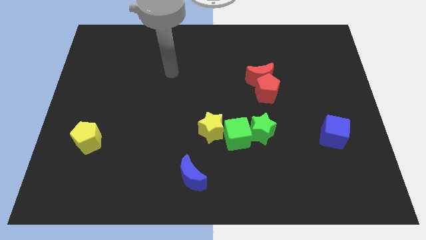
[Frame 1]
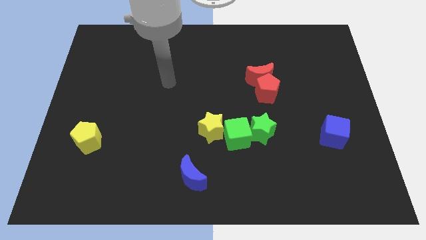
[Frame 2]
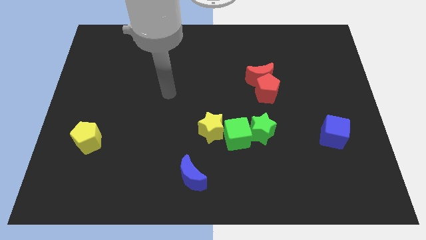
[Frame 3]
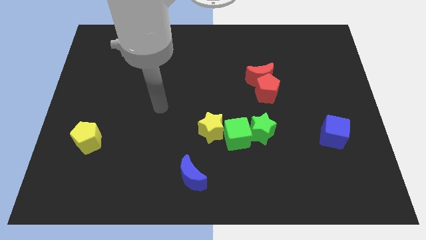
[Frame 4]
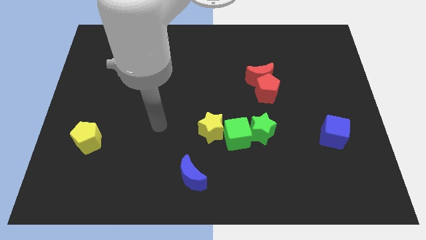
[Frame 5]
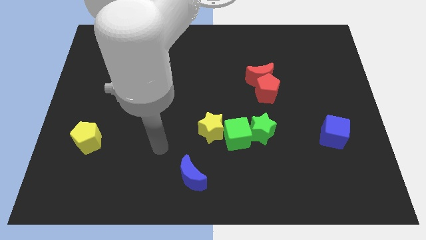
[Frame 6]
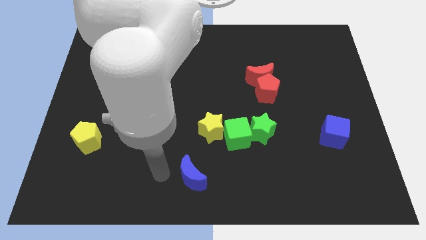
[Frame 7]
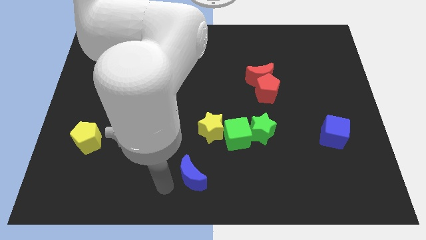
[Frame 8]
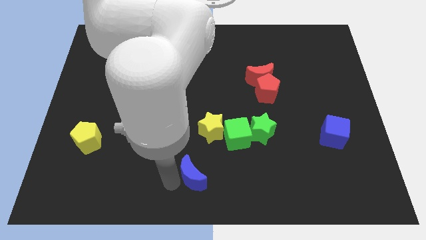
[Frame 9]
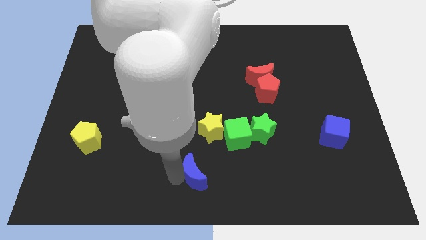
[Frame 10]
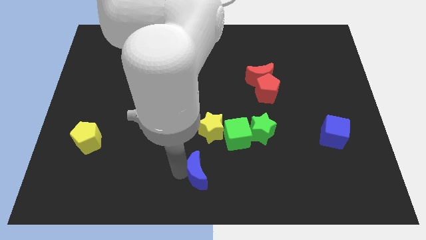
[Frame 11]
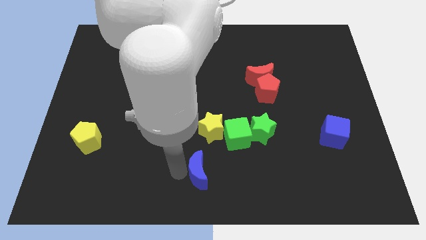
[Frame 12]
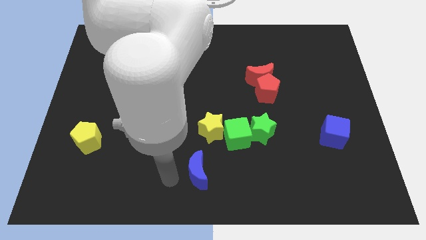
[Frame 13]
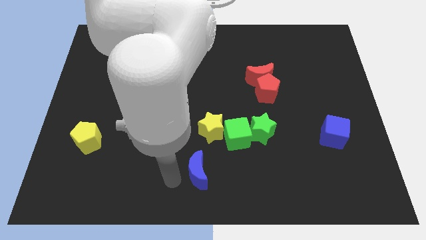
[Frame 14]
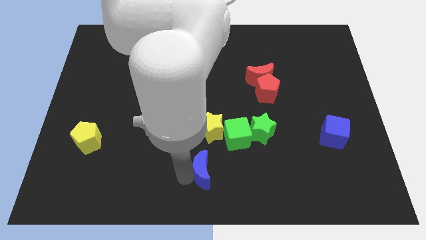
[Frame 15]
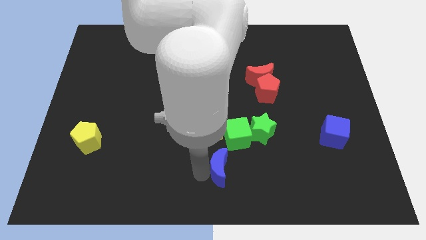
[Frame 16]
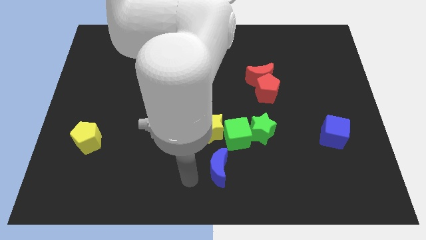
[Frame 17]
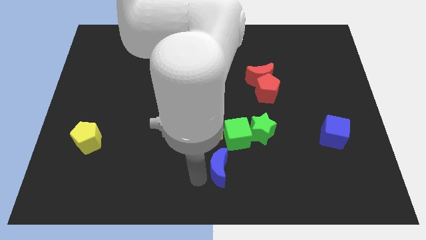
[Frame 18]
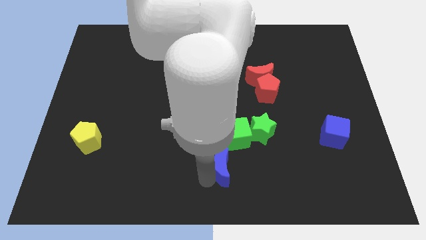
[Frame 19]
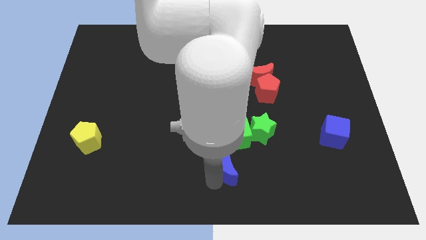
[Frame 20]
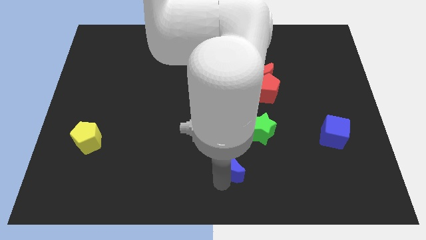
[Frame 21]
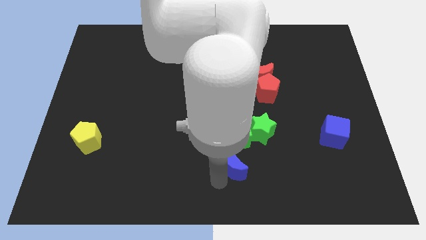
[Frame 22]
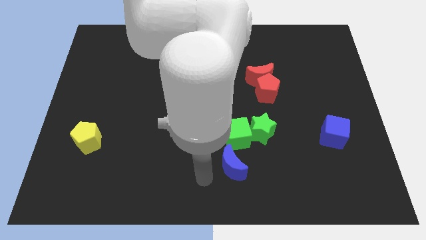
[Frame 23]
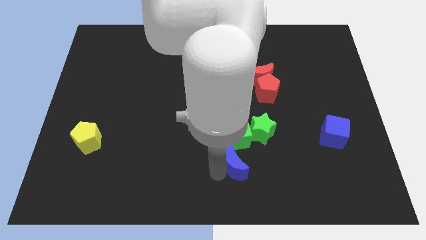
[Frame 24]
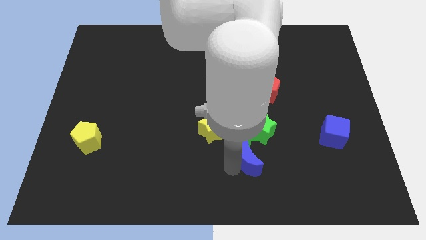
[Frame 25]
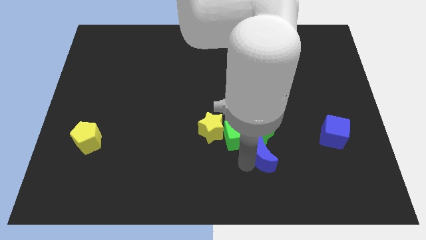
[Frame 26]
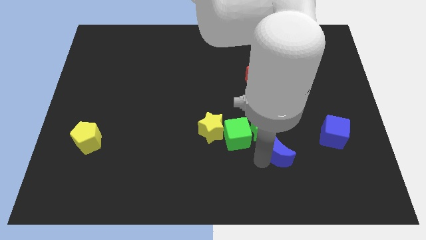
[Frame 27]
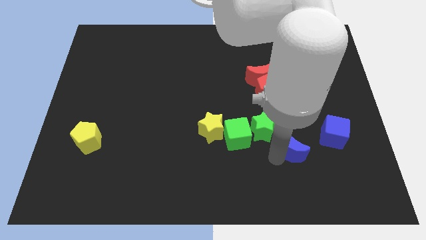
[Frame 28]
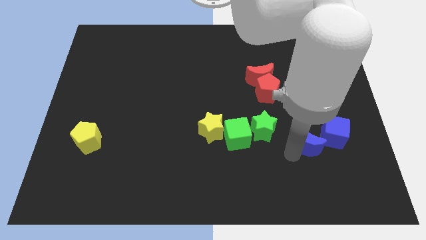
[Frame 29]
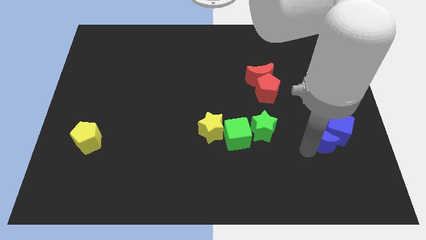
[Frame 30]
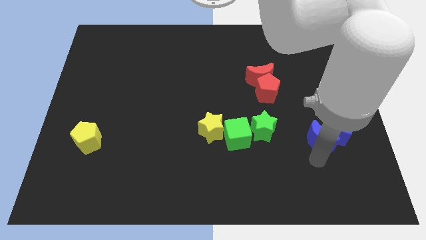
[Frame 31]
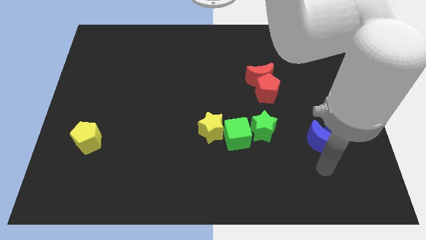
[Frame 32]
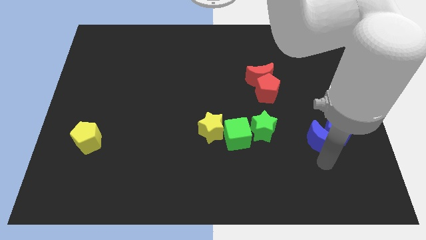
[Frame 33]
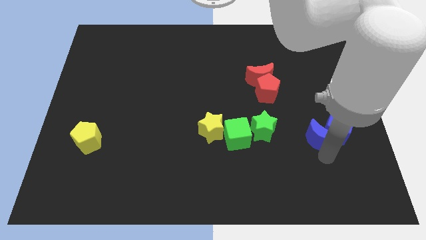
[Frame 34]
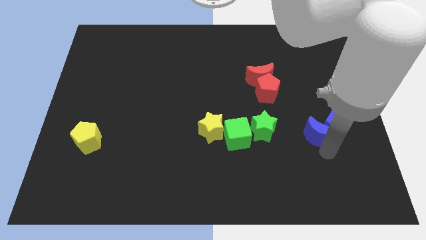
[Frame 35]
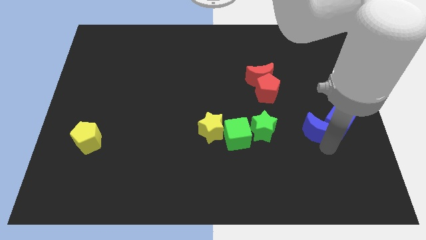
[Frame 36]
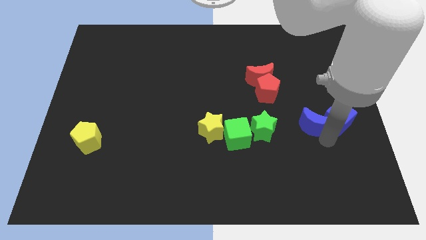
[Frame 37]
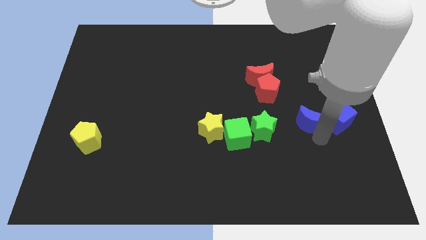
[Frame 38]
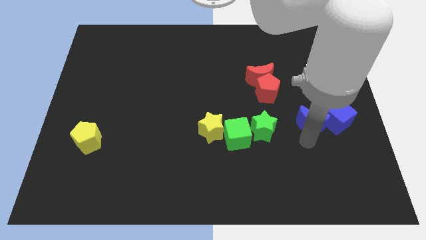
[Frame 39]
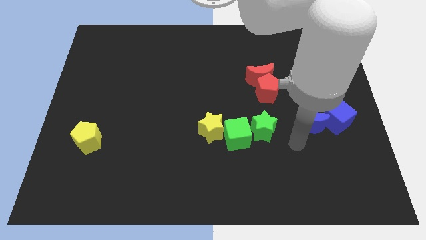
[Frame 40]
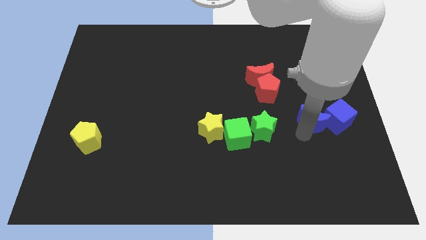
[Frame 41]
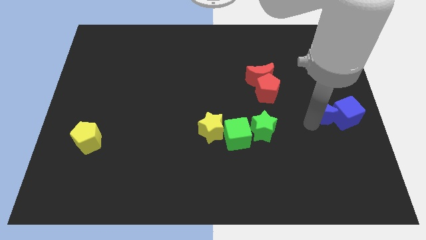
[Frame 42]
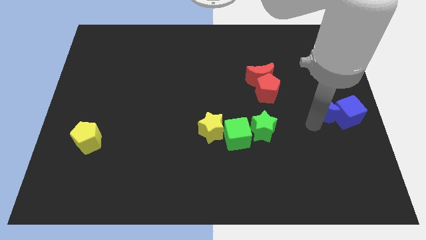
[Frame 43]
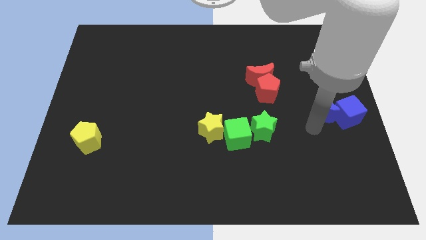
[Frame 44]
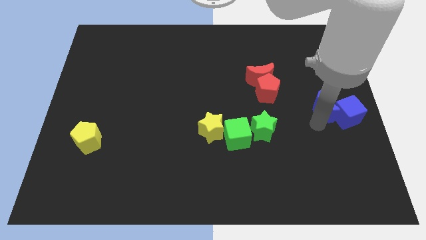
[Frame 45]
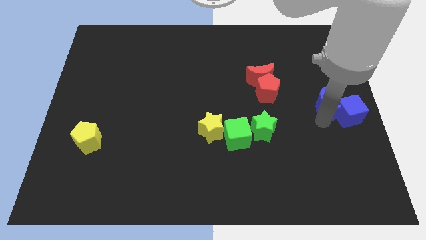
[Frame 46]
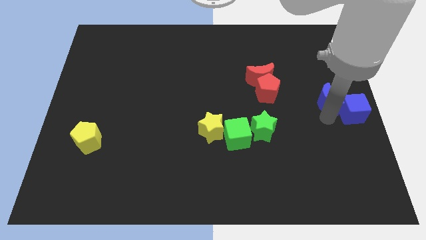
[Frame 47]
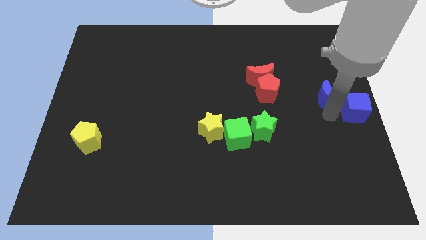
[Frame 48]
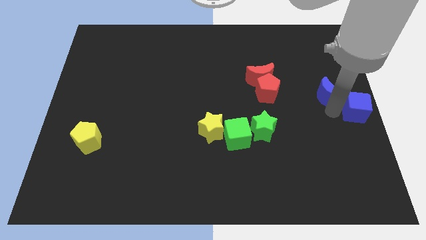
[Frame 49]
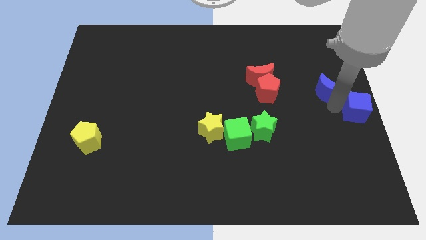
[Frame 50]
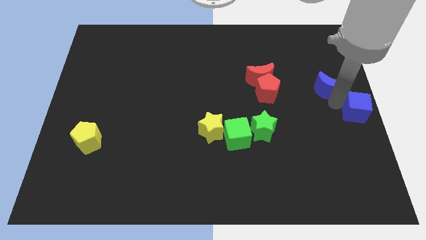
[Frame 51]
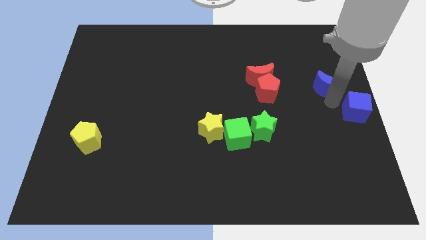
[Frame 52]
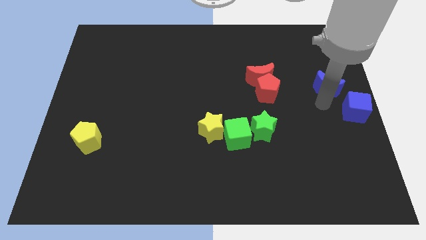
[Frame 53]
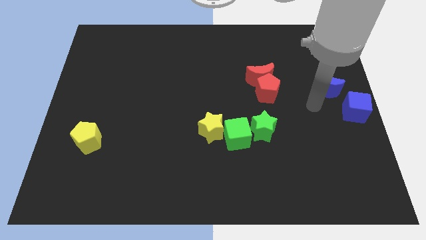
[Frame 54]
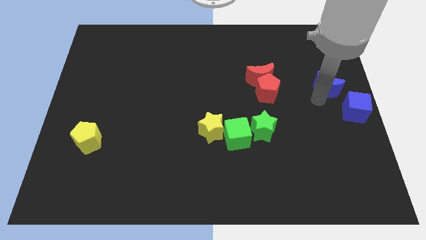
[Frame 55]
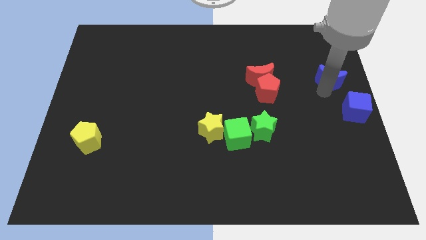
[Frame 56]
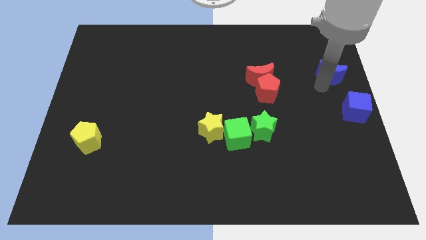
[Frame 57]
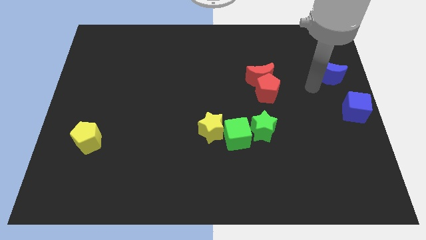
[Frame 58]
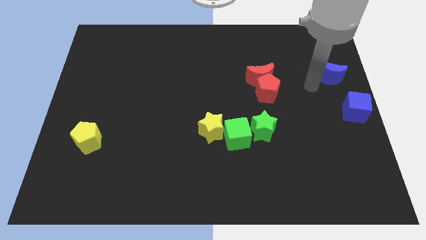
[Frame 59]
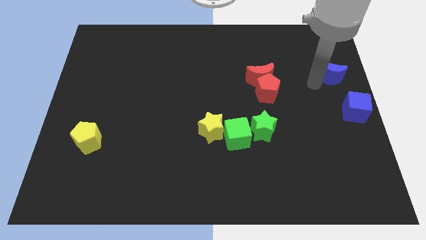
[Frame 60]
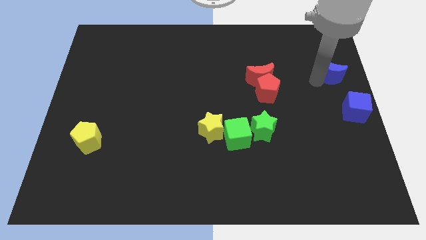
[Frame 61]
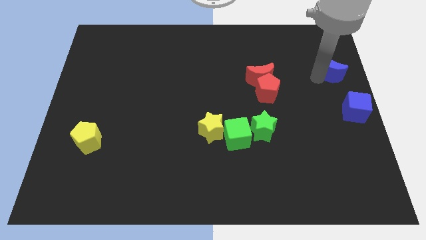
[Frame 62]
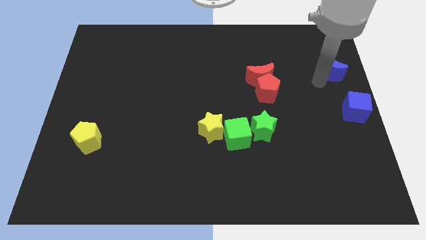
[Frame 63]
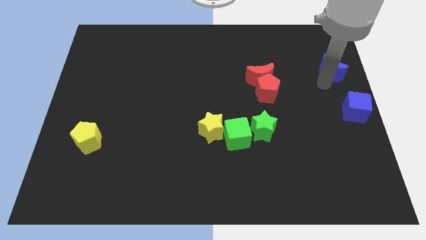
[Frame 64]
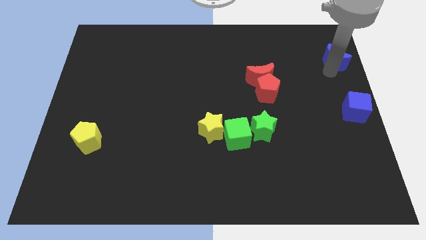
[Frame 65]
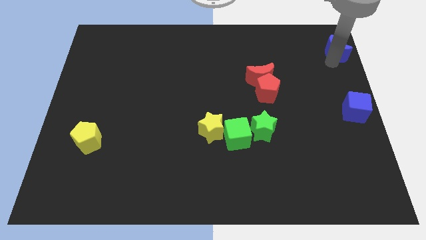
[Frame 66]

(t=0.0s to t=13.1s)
slide the blue moon to the top right corner
